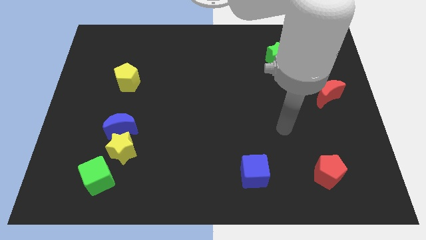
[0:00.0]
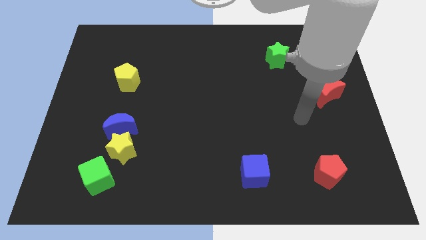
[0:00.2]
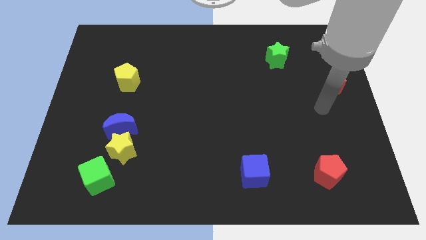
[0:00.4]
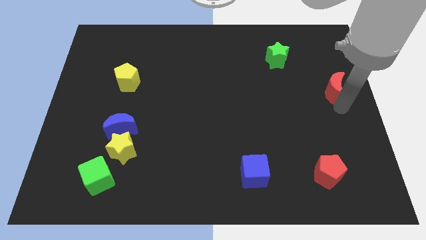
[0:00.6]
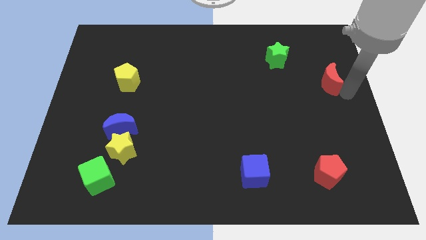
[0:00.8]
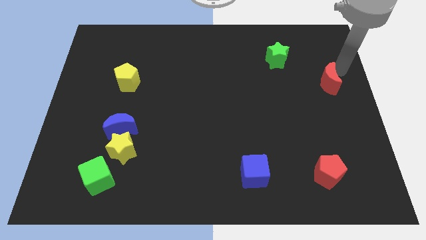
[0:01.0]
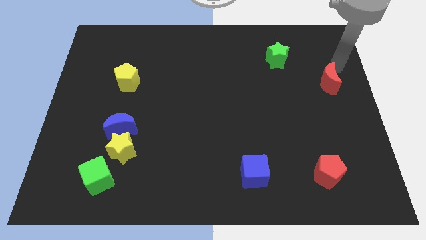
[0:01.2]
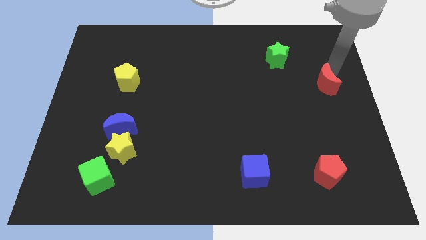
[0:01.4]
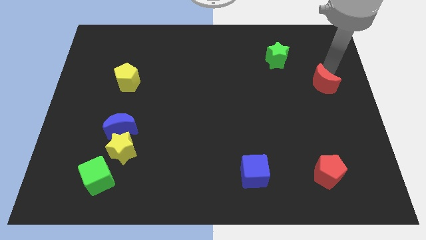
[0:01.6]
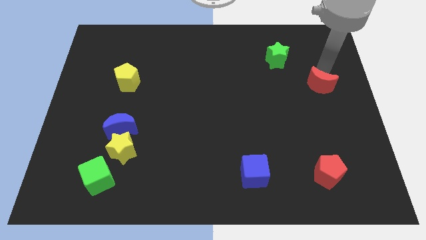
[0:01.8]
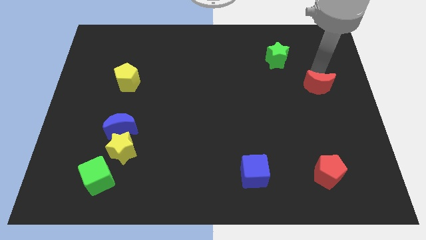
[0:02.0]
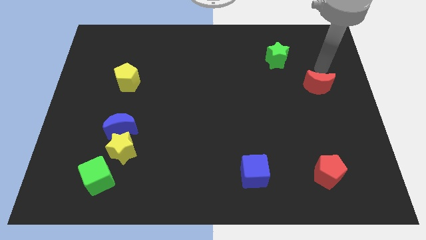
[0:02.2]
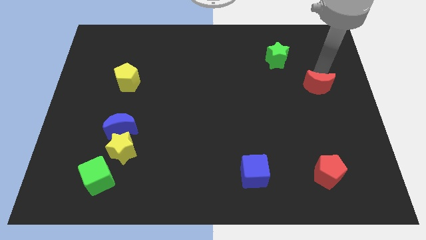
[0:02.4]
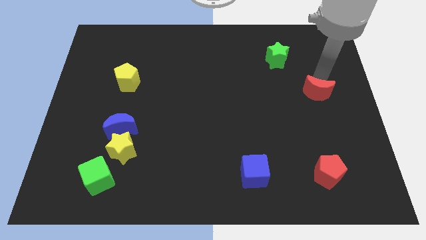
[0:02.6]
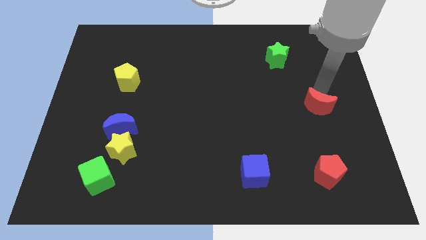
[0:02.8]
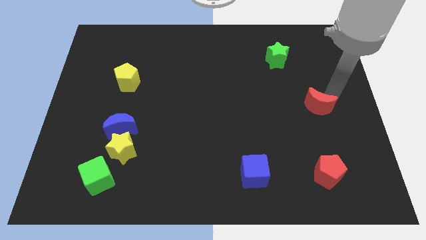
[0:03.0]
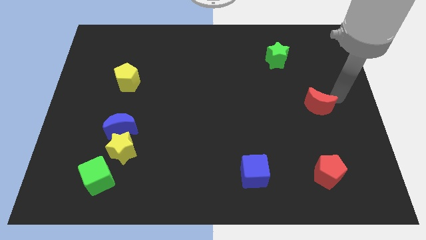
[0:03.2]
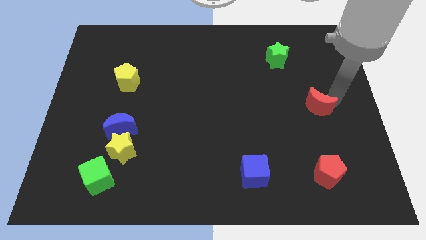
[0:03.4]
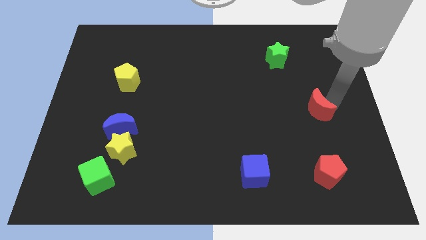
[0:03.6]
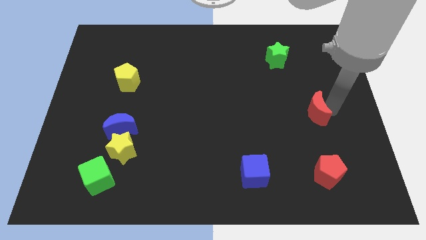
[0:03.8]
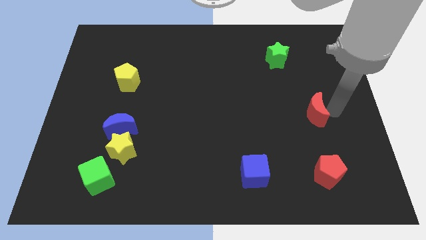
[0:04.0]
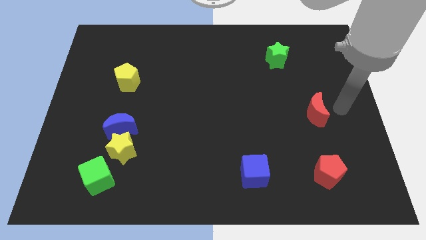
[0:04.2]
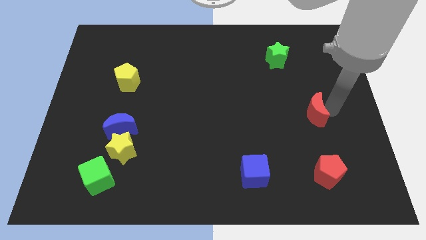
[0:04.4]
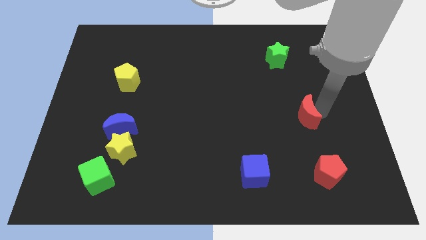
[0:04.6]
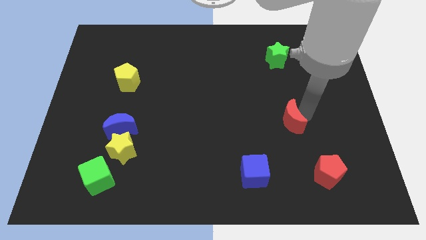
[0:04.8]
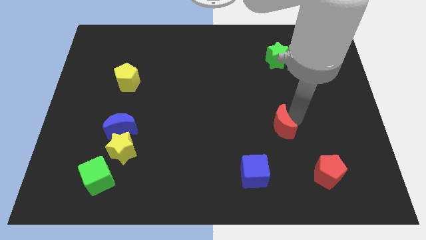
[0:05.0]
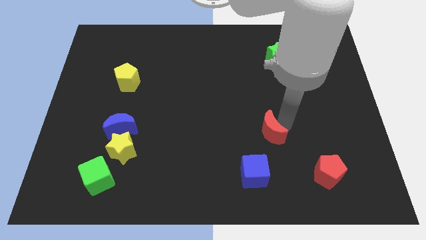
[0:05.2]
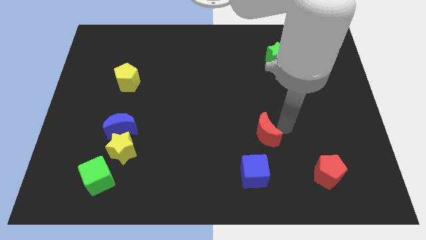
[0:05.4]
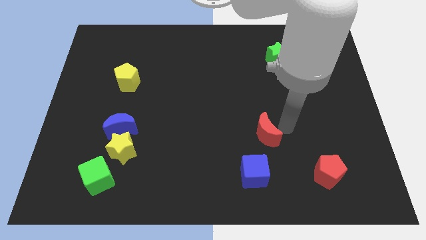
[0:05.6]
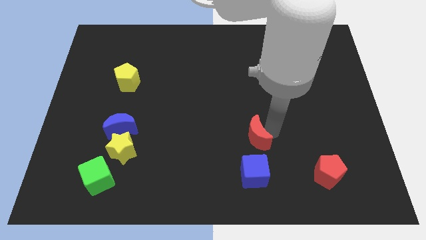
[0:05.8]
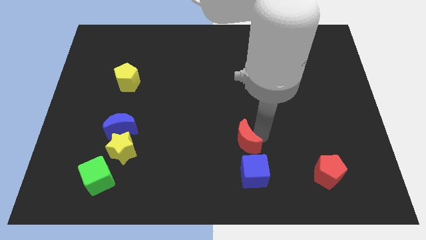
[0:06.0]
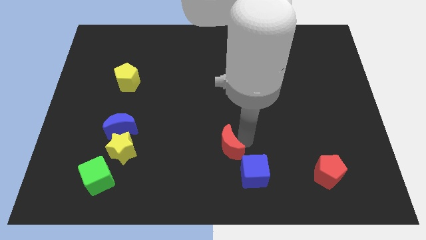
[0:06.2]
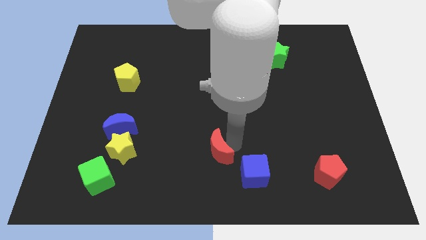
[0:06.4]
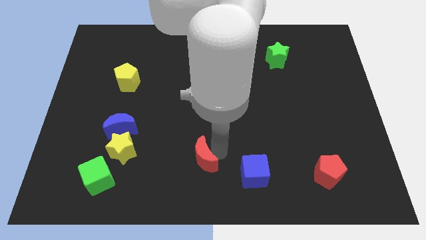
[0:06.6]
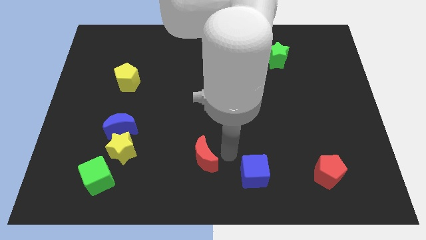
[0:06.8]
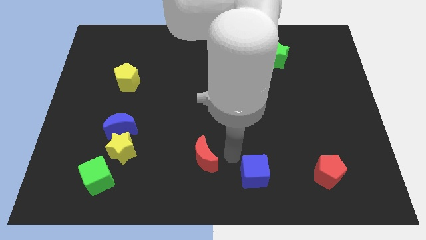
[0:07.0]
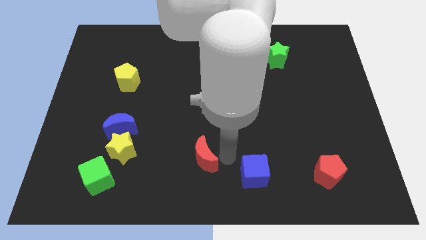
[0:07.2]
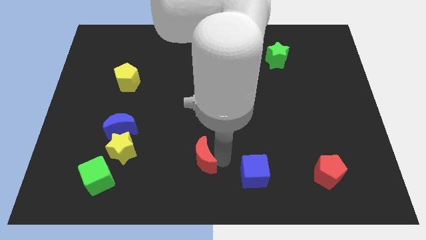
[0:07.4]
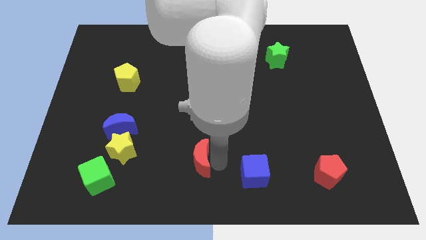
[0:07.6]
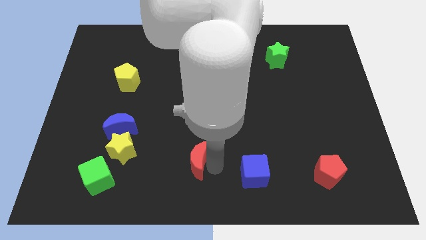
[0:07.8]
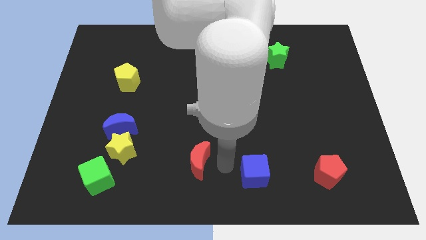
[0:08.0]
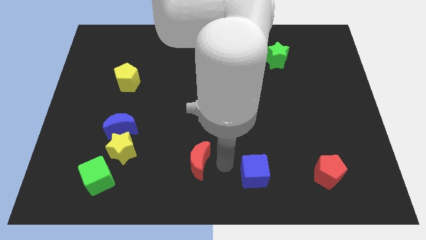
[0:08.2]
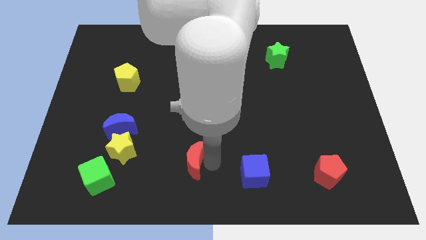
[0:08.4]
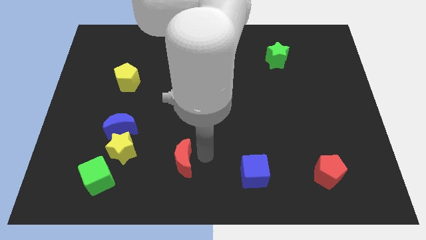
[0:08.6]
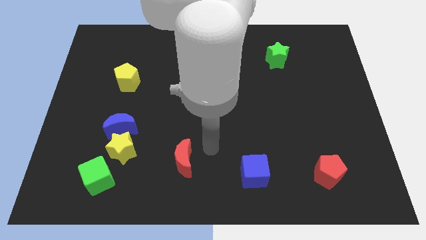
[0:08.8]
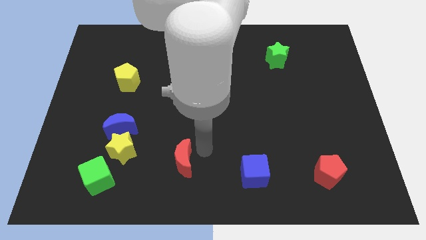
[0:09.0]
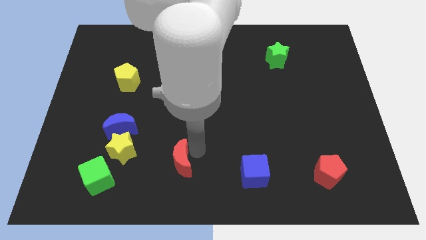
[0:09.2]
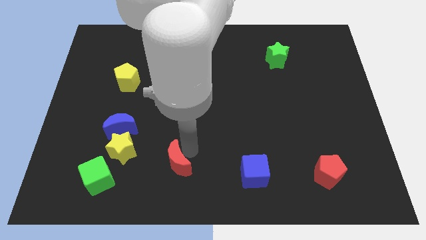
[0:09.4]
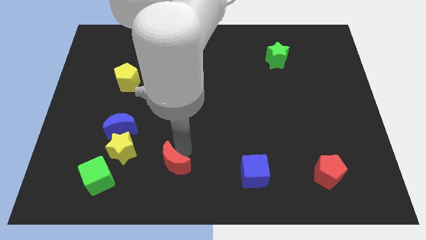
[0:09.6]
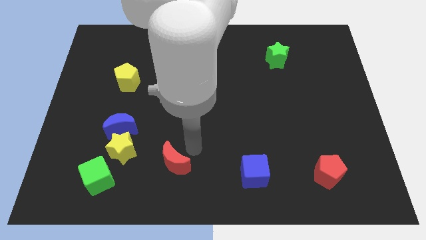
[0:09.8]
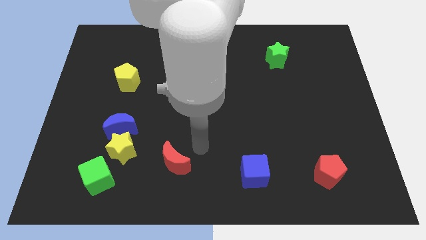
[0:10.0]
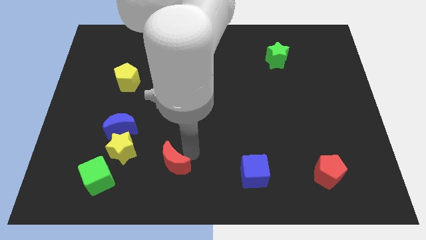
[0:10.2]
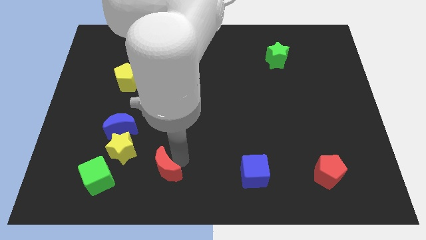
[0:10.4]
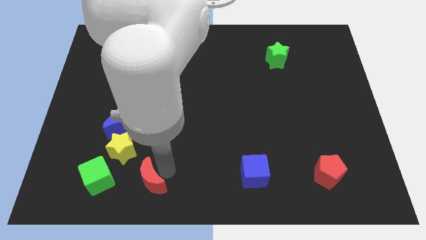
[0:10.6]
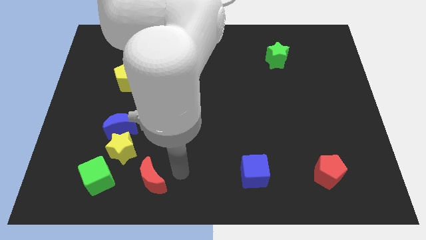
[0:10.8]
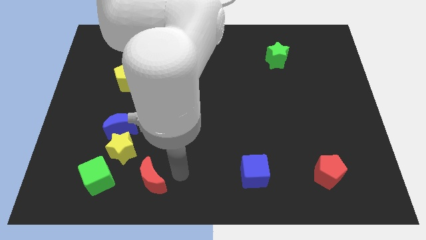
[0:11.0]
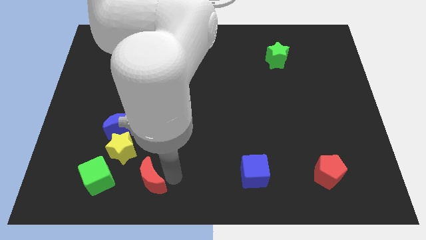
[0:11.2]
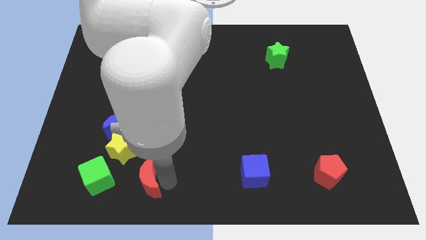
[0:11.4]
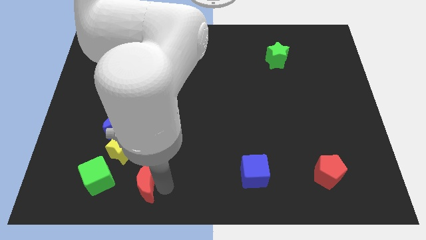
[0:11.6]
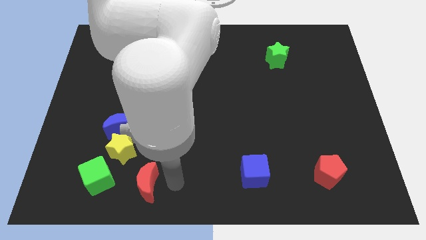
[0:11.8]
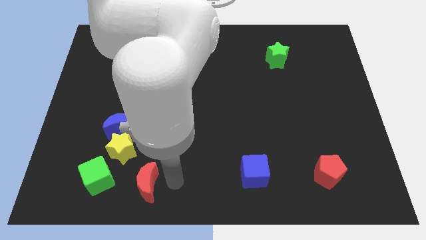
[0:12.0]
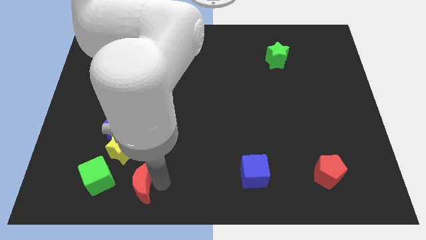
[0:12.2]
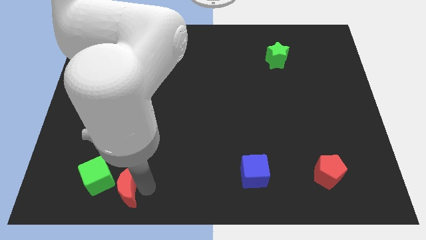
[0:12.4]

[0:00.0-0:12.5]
move the red moon below the blue moon

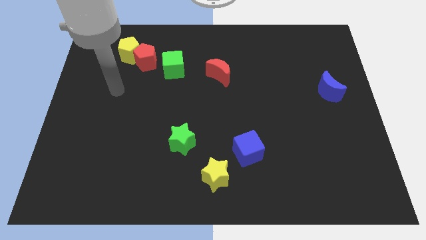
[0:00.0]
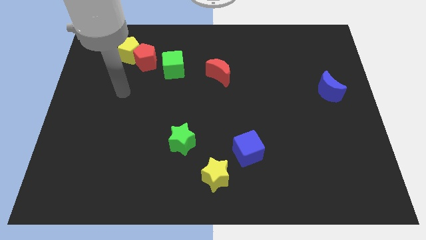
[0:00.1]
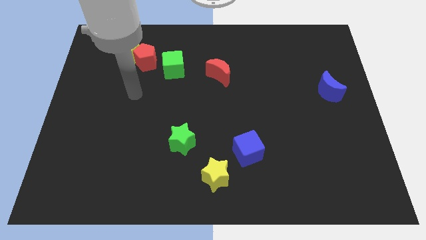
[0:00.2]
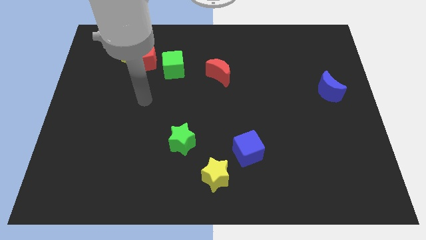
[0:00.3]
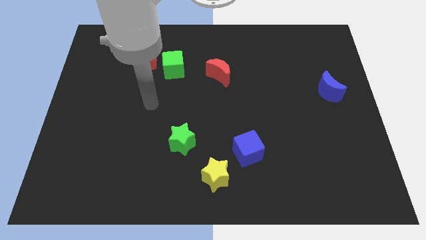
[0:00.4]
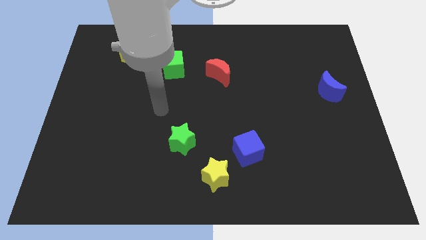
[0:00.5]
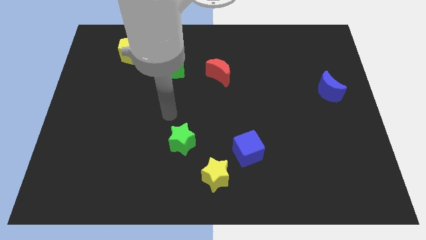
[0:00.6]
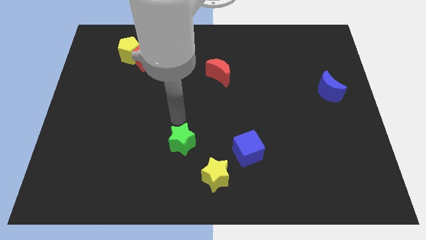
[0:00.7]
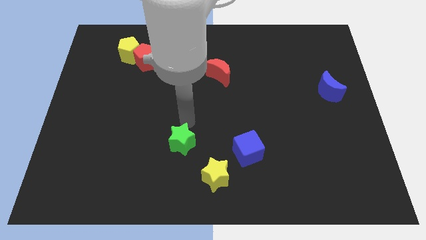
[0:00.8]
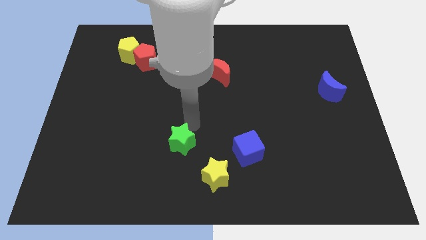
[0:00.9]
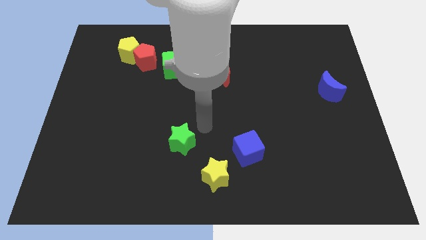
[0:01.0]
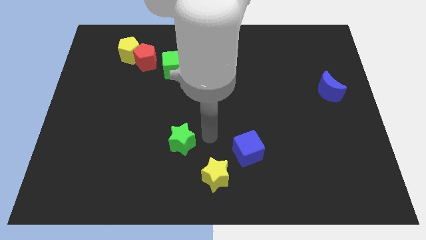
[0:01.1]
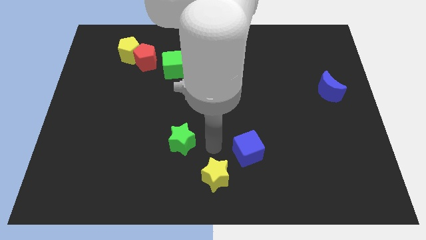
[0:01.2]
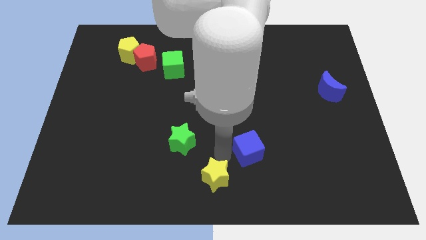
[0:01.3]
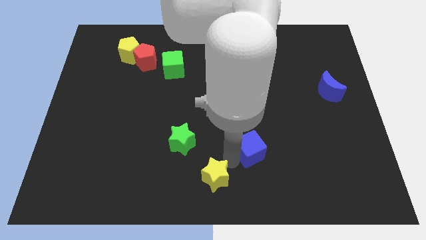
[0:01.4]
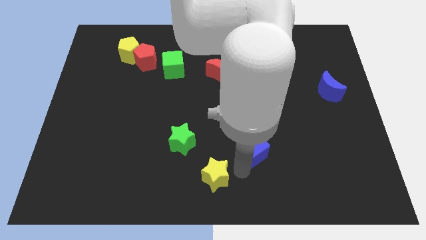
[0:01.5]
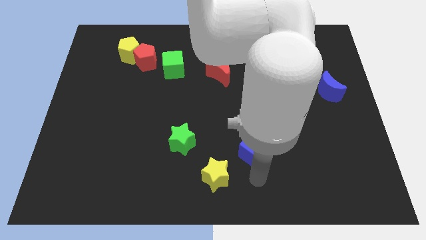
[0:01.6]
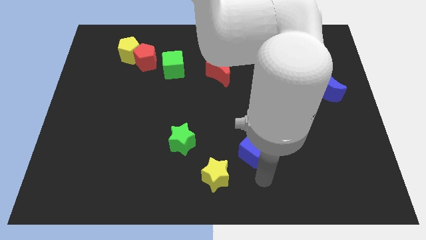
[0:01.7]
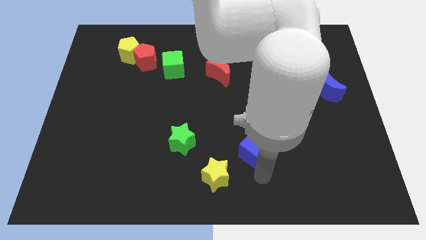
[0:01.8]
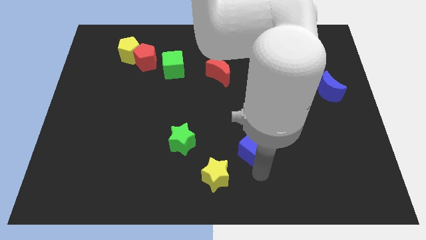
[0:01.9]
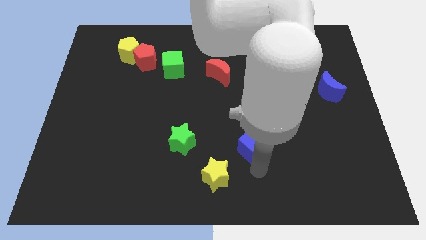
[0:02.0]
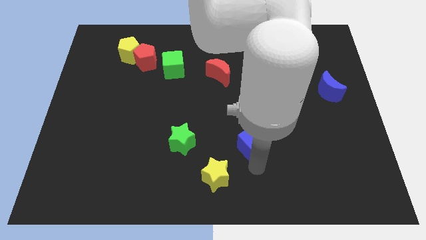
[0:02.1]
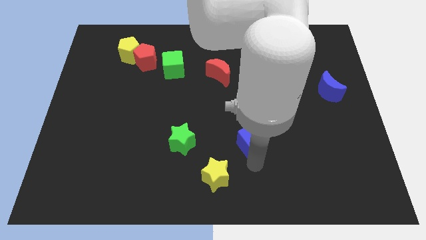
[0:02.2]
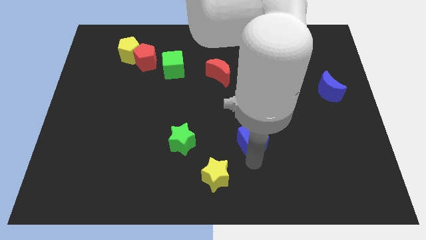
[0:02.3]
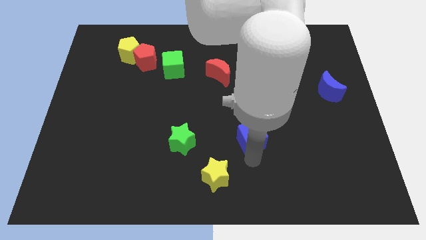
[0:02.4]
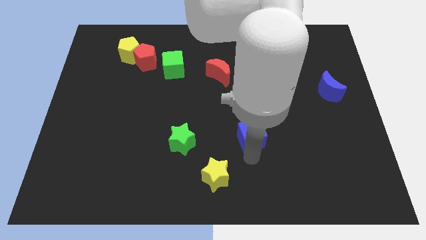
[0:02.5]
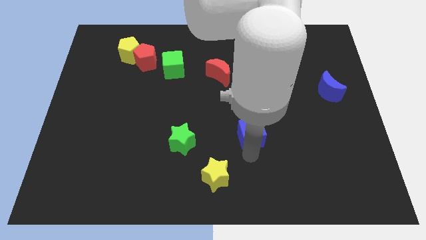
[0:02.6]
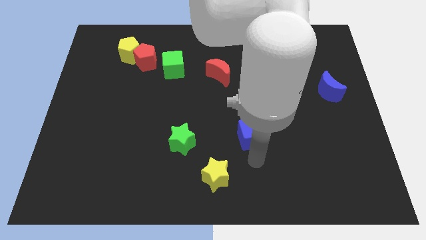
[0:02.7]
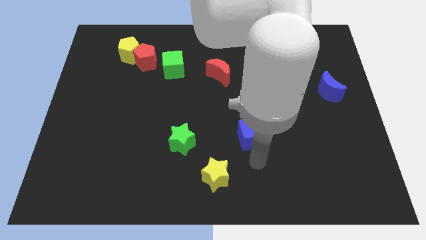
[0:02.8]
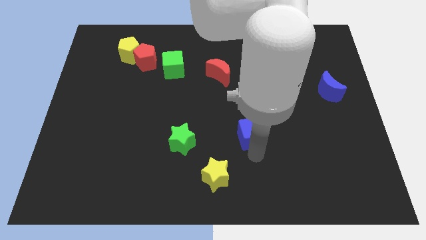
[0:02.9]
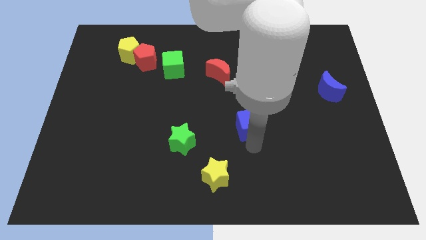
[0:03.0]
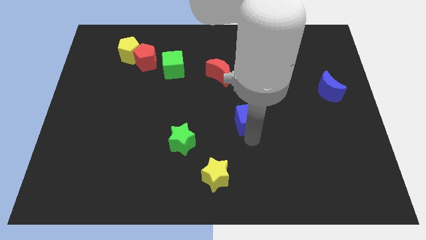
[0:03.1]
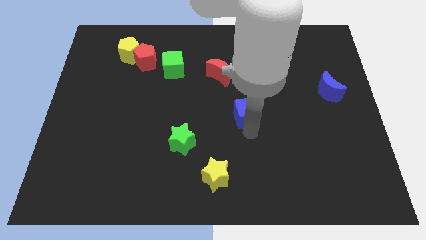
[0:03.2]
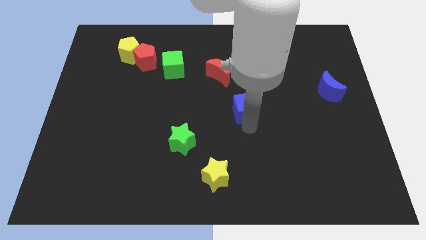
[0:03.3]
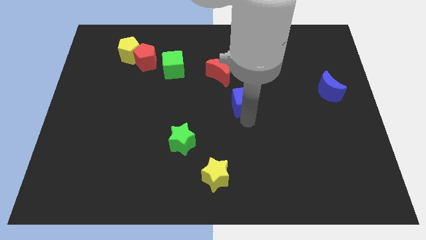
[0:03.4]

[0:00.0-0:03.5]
slide the blue cube to the bottom right of the red moon
